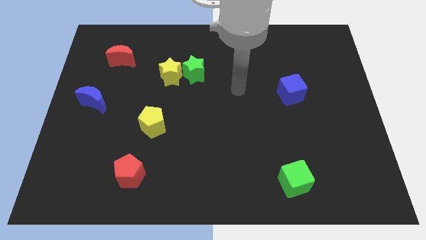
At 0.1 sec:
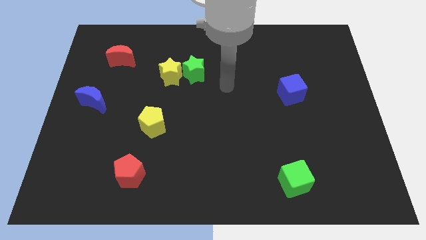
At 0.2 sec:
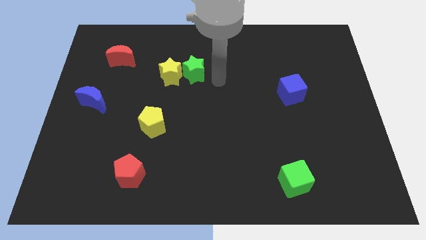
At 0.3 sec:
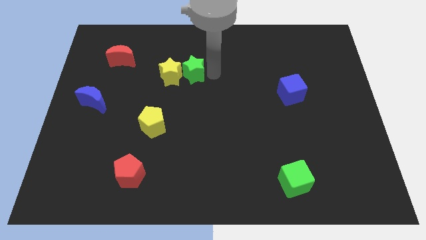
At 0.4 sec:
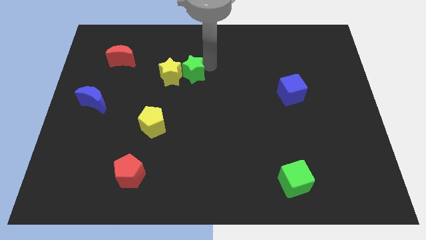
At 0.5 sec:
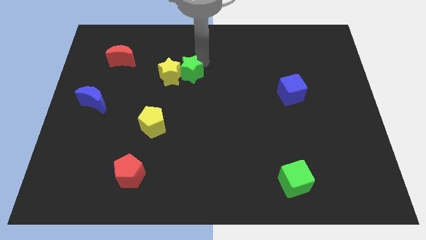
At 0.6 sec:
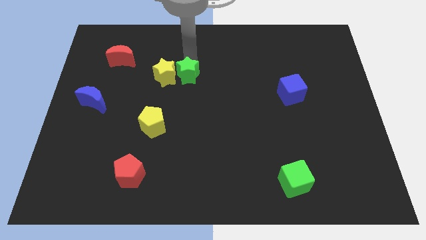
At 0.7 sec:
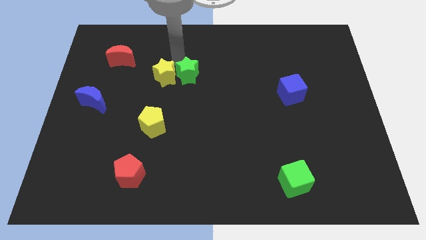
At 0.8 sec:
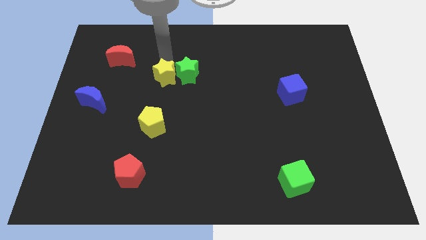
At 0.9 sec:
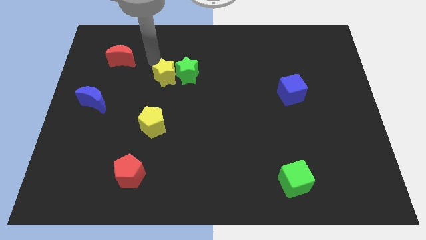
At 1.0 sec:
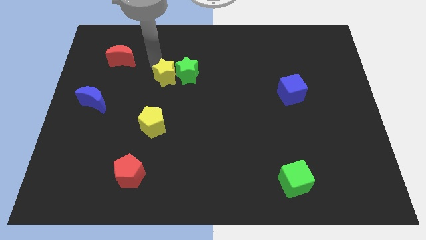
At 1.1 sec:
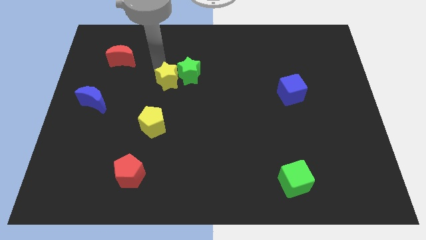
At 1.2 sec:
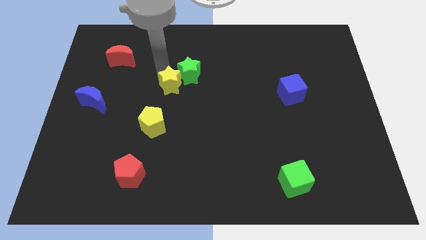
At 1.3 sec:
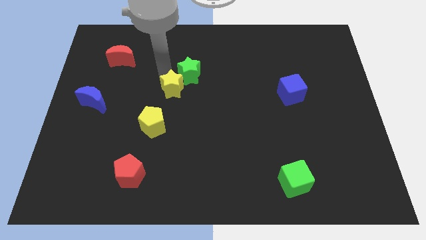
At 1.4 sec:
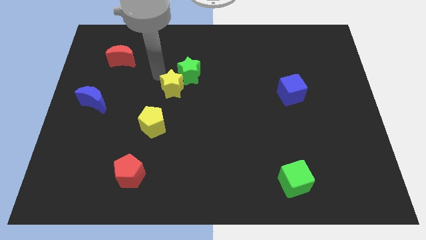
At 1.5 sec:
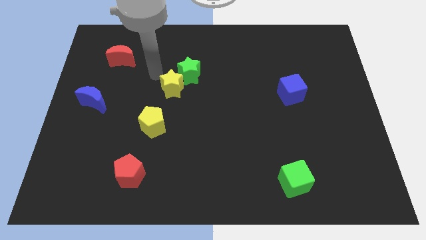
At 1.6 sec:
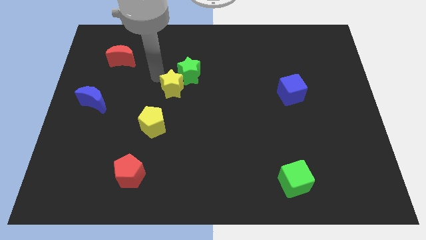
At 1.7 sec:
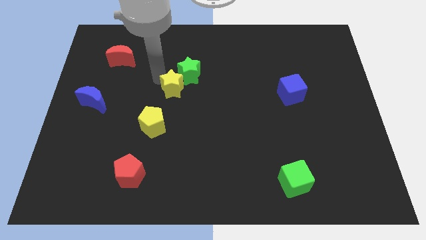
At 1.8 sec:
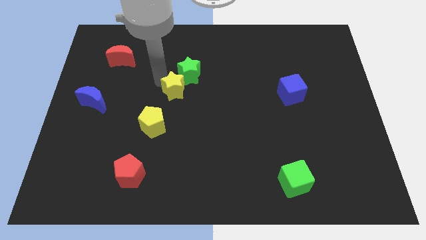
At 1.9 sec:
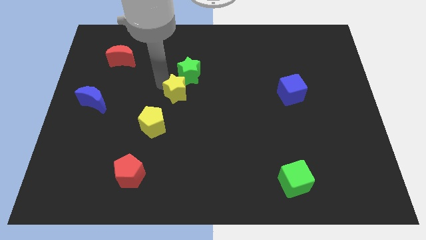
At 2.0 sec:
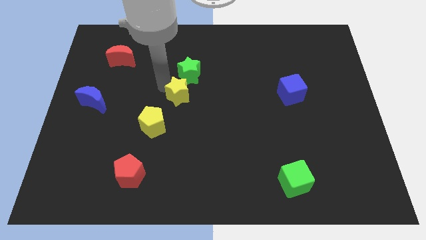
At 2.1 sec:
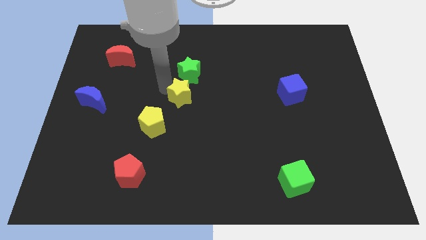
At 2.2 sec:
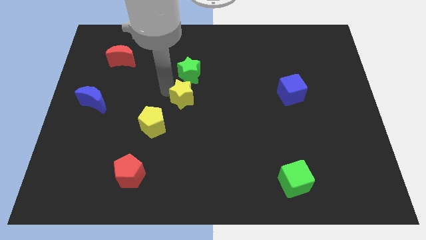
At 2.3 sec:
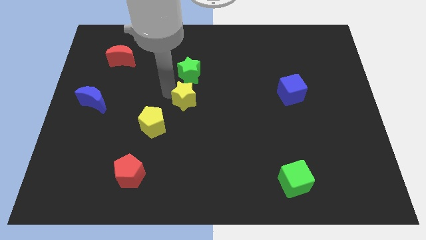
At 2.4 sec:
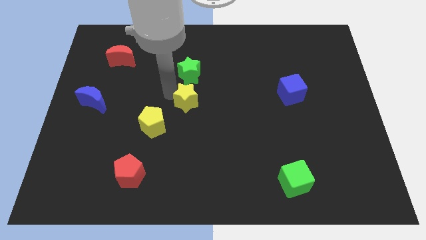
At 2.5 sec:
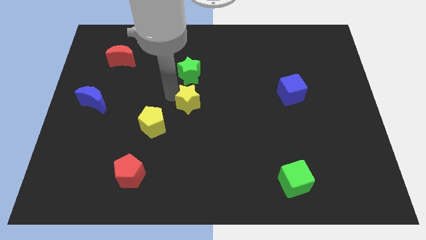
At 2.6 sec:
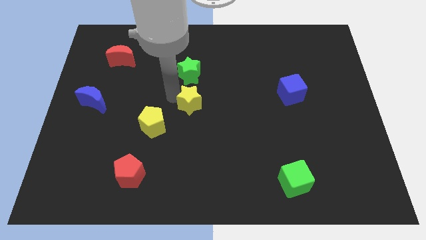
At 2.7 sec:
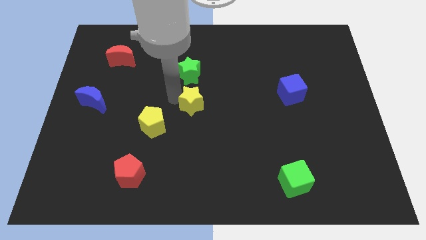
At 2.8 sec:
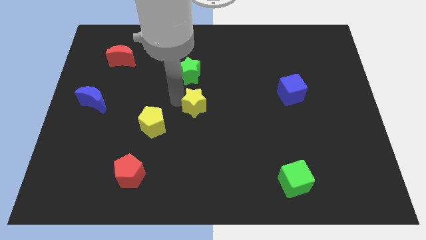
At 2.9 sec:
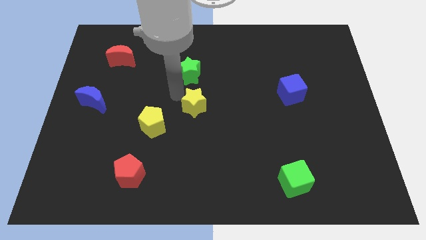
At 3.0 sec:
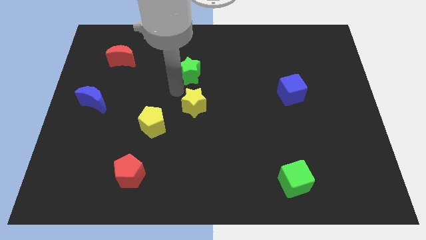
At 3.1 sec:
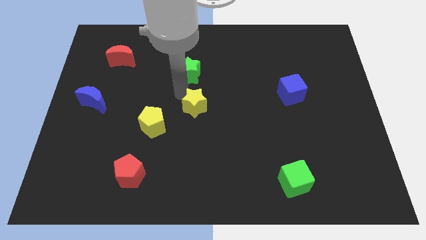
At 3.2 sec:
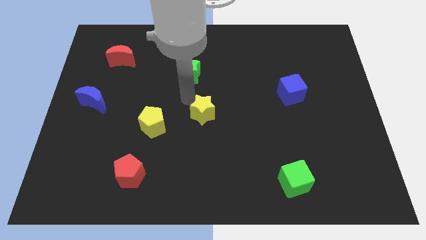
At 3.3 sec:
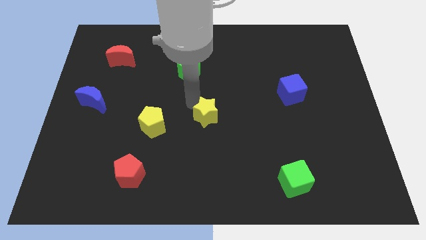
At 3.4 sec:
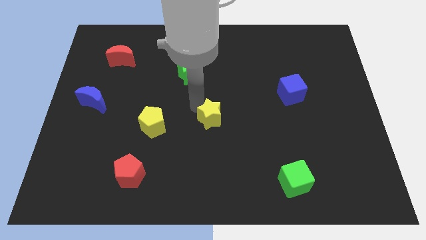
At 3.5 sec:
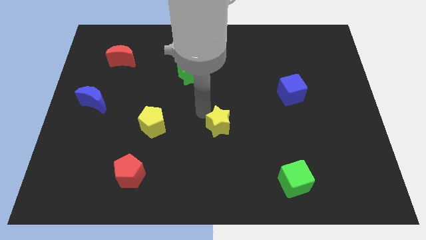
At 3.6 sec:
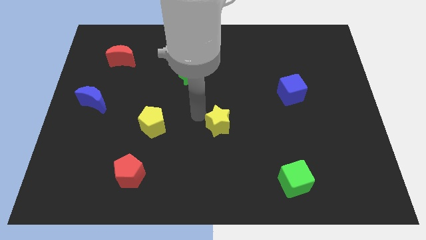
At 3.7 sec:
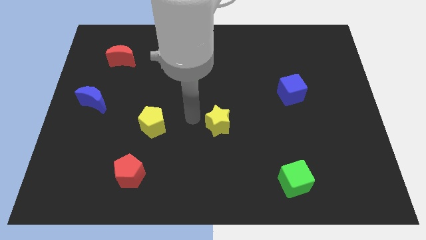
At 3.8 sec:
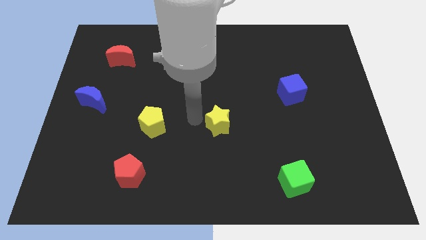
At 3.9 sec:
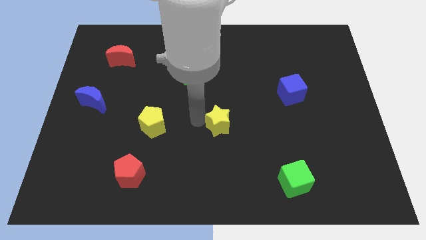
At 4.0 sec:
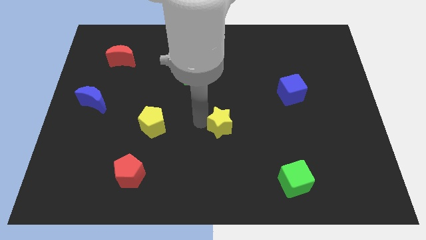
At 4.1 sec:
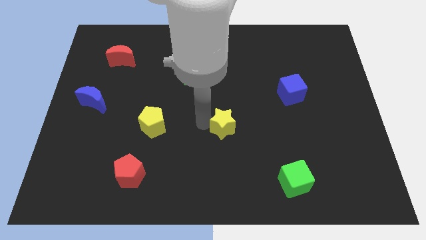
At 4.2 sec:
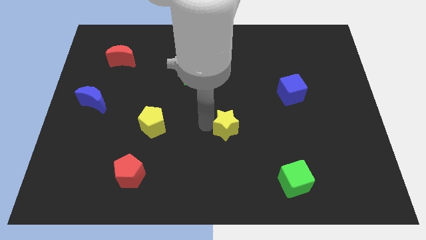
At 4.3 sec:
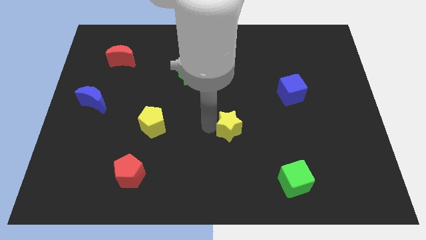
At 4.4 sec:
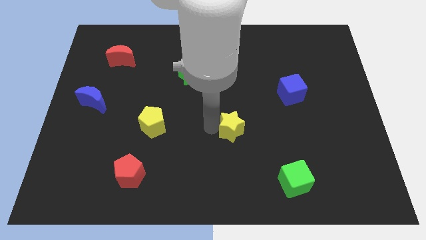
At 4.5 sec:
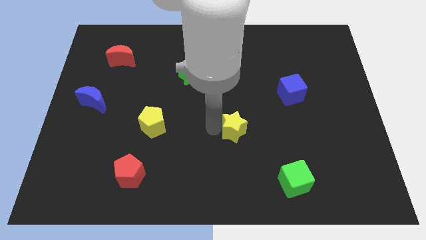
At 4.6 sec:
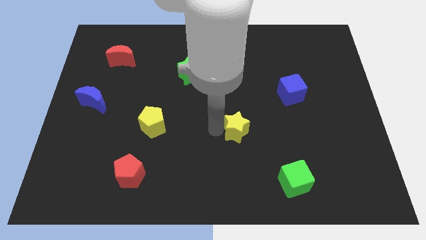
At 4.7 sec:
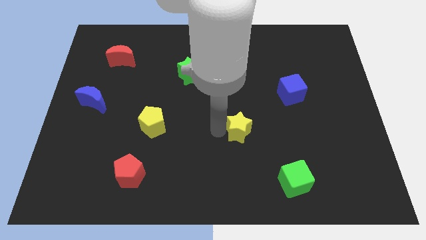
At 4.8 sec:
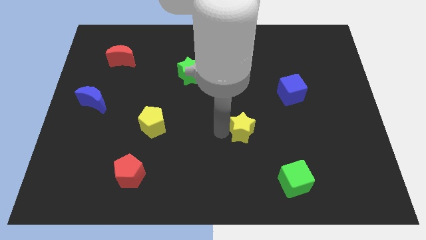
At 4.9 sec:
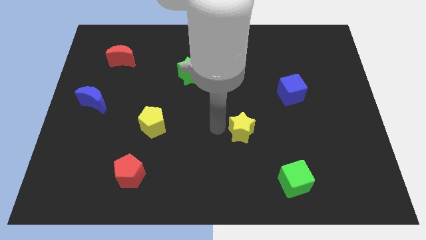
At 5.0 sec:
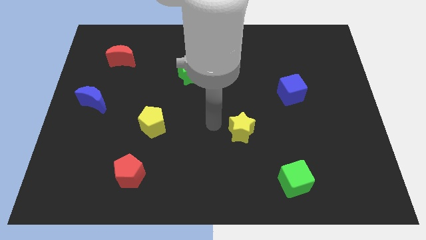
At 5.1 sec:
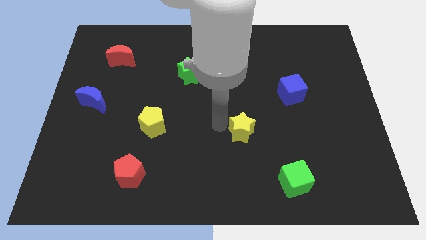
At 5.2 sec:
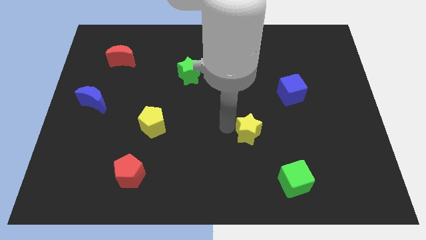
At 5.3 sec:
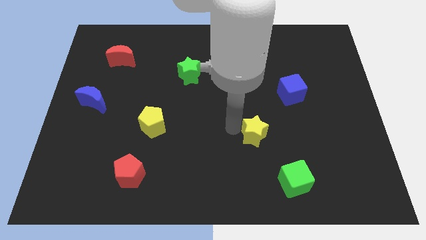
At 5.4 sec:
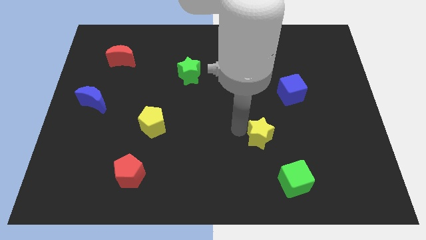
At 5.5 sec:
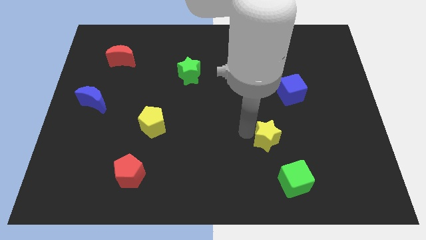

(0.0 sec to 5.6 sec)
put the yellow star to the top of the green cube

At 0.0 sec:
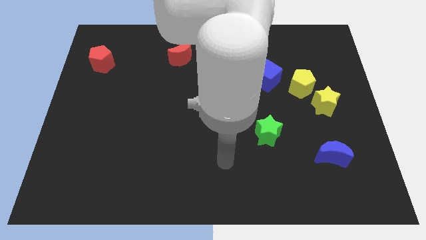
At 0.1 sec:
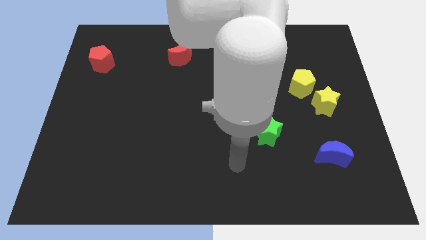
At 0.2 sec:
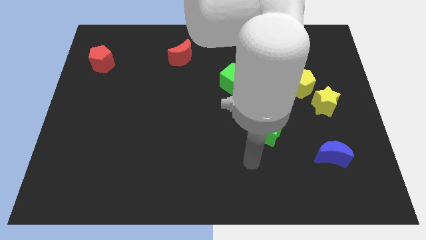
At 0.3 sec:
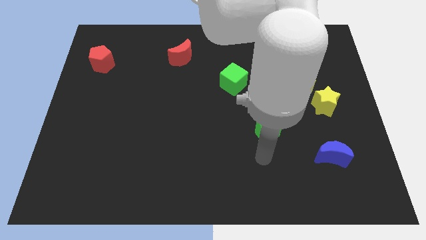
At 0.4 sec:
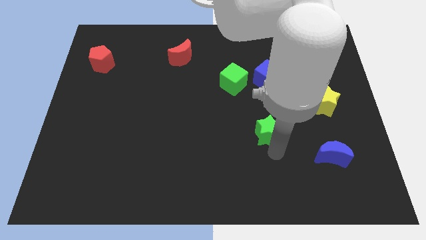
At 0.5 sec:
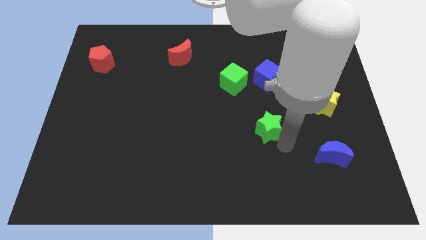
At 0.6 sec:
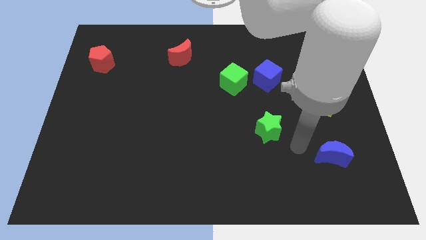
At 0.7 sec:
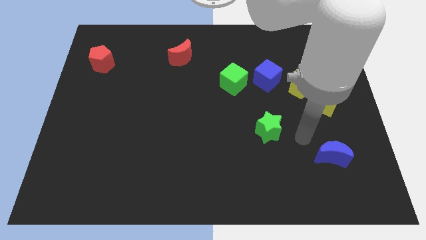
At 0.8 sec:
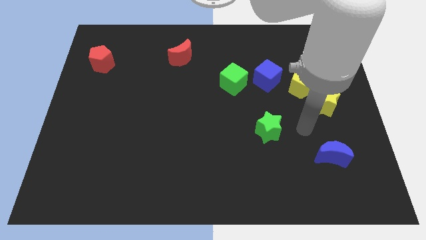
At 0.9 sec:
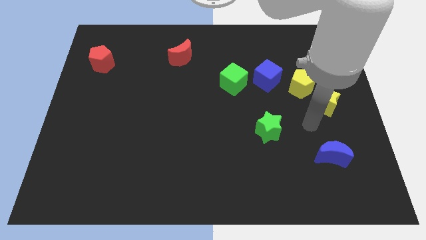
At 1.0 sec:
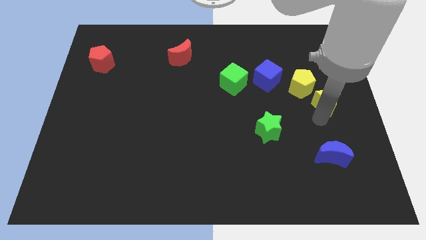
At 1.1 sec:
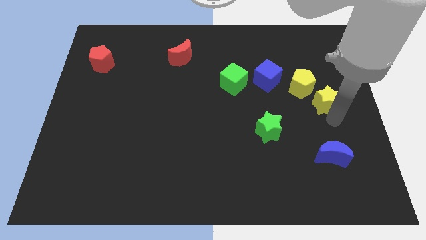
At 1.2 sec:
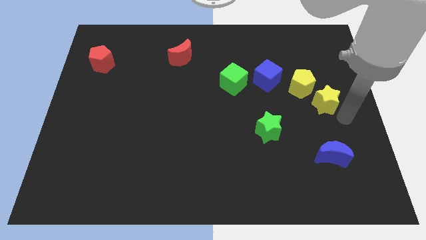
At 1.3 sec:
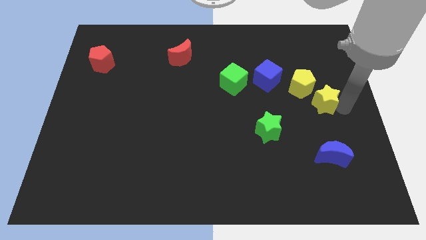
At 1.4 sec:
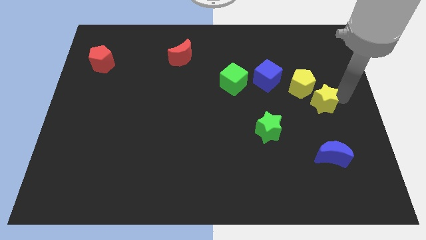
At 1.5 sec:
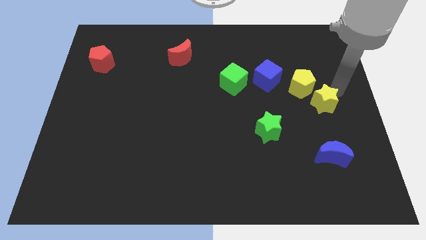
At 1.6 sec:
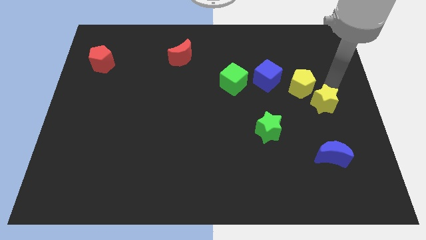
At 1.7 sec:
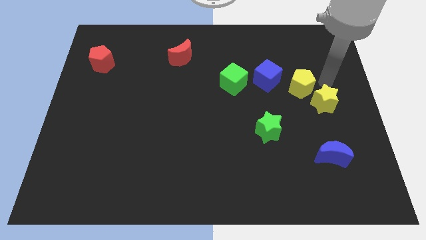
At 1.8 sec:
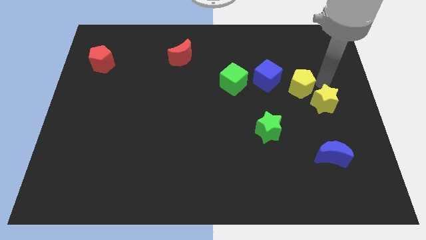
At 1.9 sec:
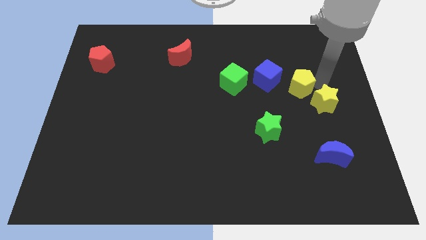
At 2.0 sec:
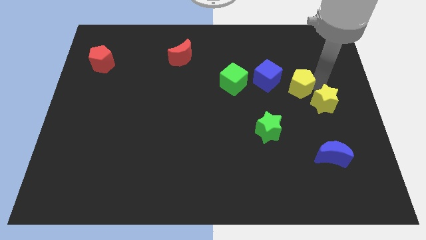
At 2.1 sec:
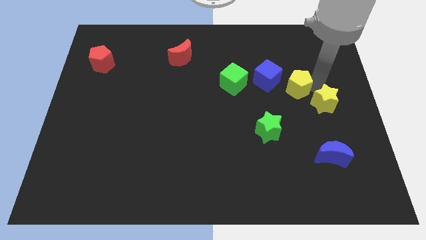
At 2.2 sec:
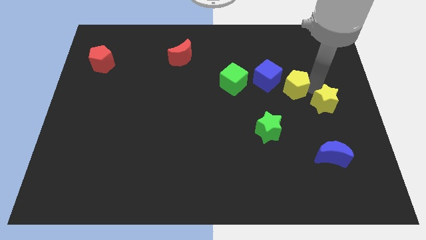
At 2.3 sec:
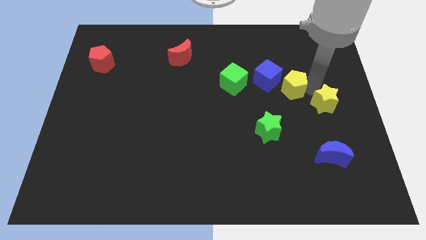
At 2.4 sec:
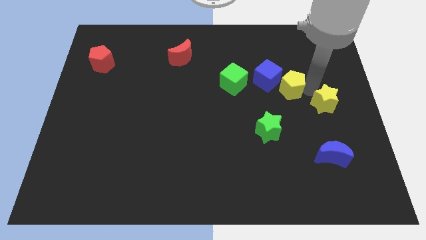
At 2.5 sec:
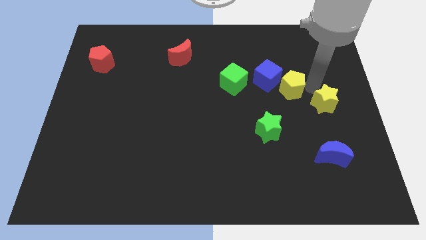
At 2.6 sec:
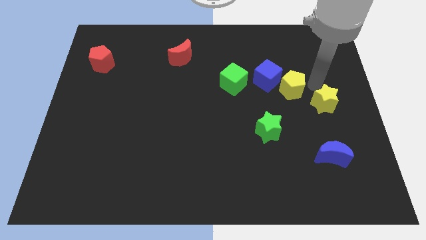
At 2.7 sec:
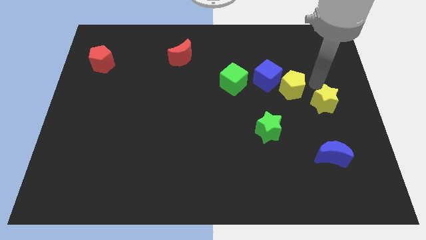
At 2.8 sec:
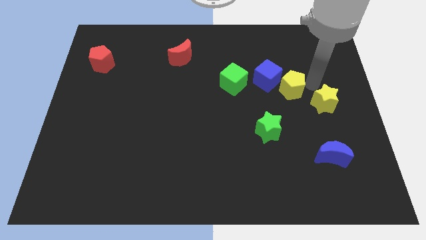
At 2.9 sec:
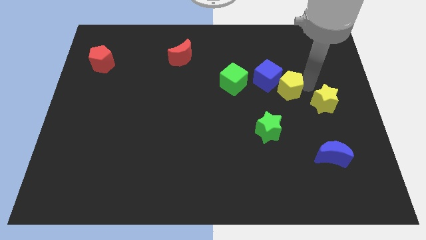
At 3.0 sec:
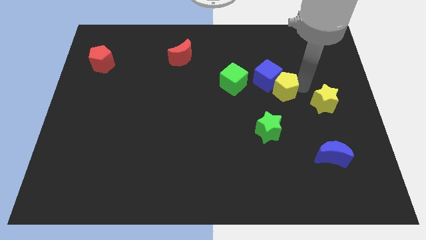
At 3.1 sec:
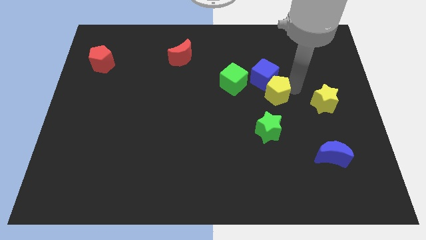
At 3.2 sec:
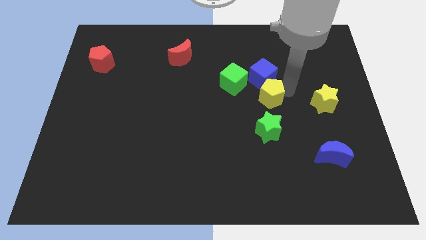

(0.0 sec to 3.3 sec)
put the yellow pentagon to the bottom right of the green cube
